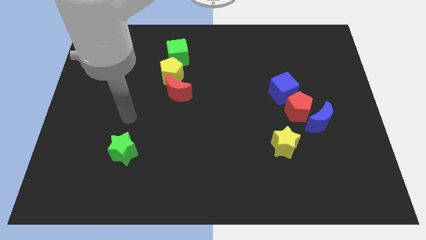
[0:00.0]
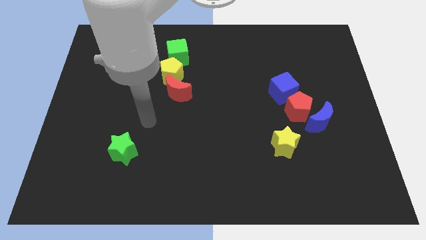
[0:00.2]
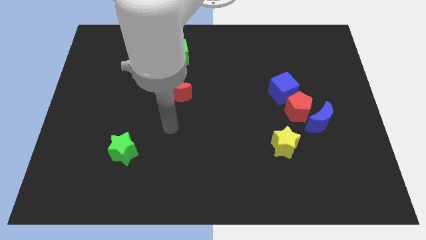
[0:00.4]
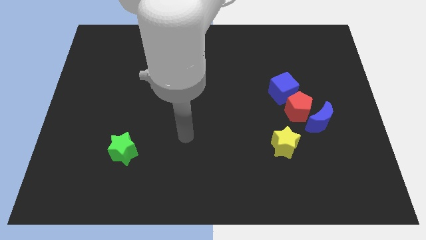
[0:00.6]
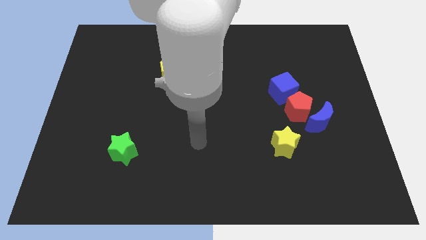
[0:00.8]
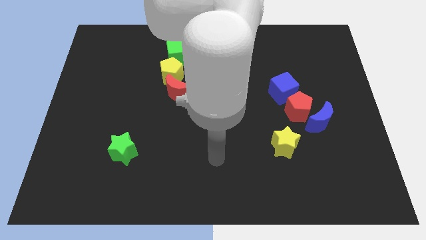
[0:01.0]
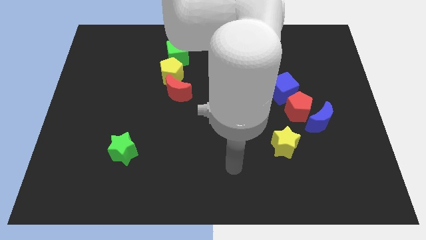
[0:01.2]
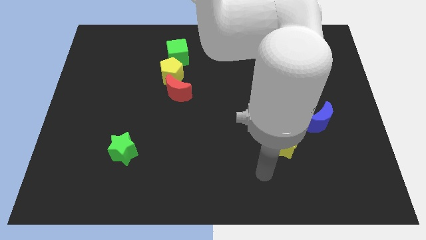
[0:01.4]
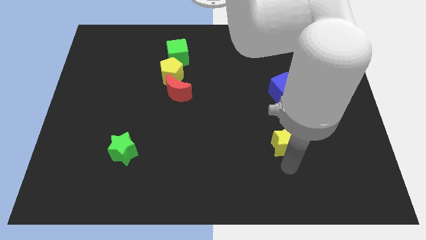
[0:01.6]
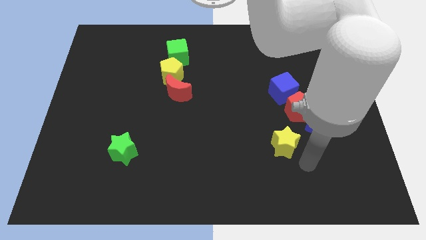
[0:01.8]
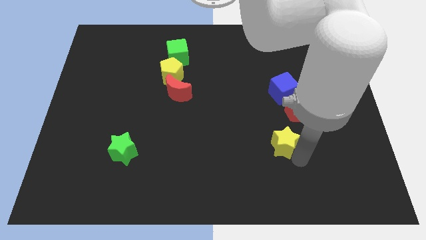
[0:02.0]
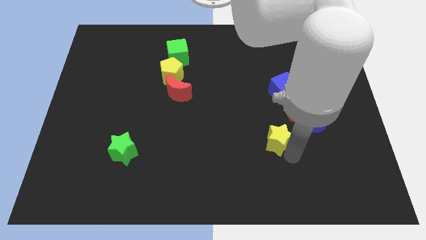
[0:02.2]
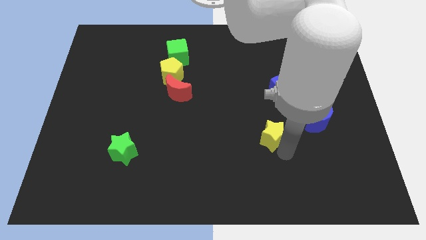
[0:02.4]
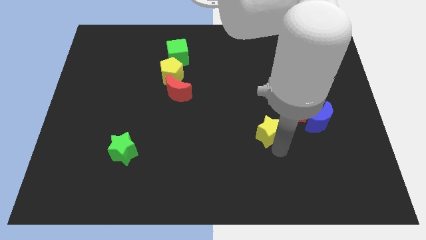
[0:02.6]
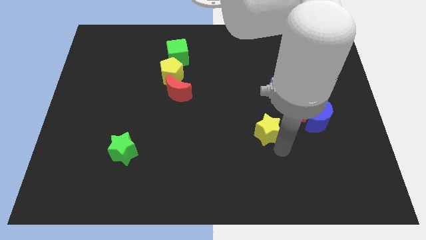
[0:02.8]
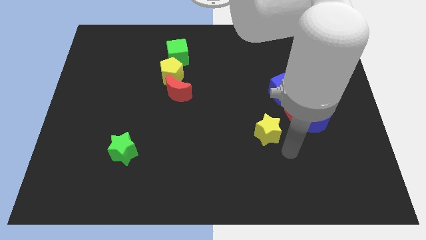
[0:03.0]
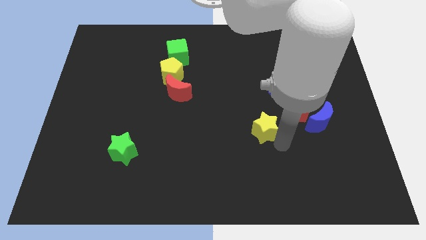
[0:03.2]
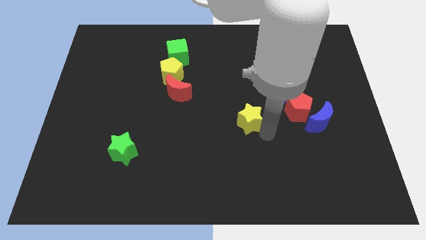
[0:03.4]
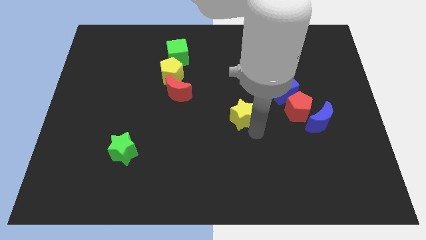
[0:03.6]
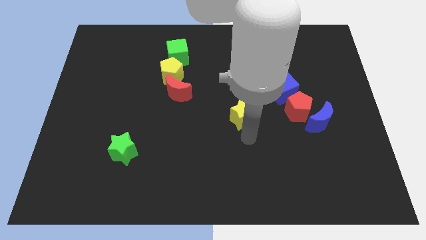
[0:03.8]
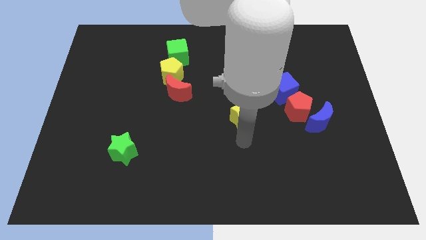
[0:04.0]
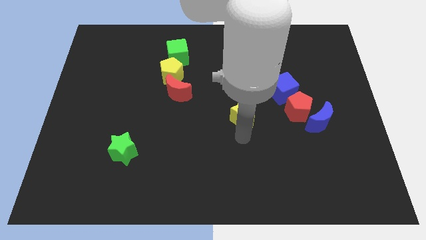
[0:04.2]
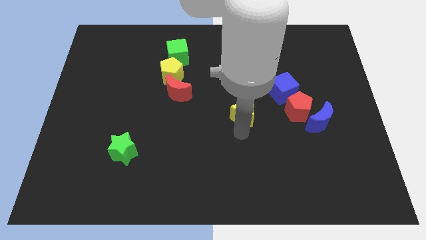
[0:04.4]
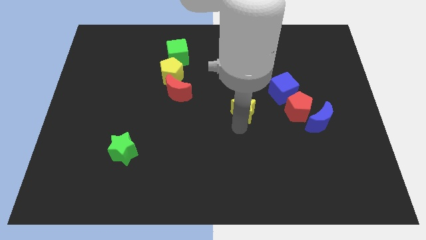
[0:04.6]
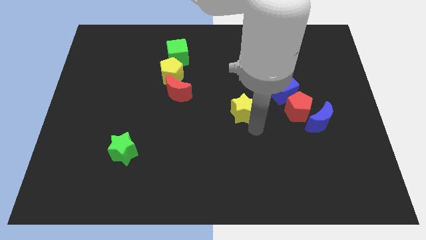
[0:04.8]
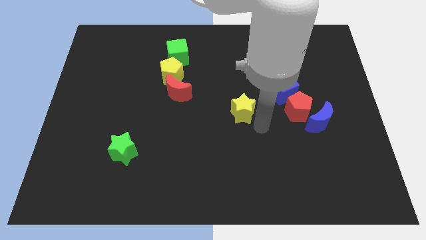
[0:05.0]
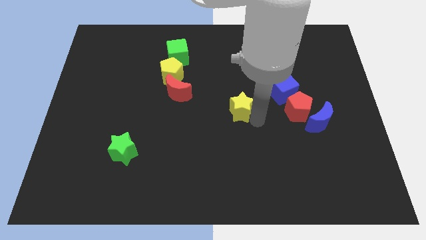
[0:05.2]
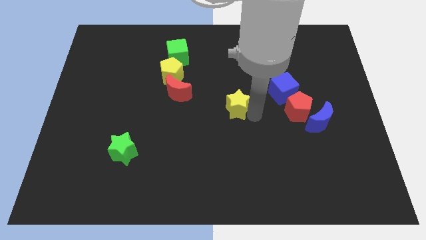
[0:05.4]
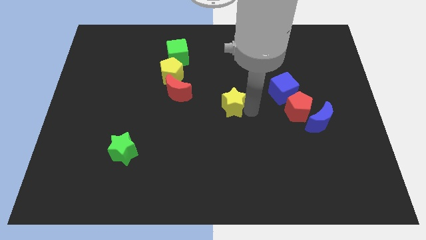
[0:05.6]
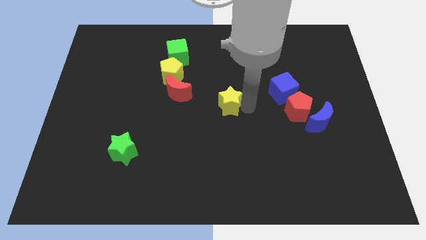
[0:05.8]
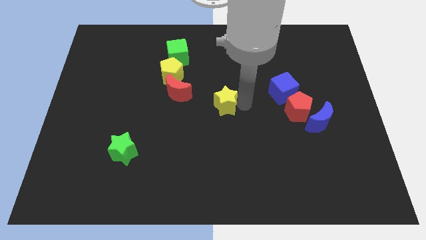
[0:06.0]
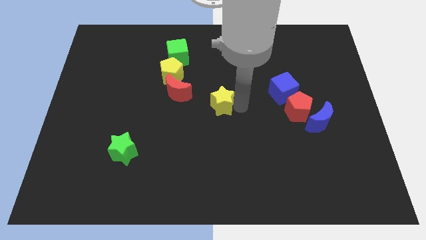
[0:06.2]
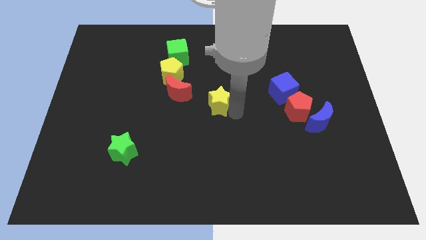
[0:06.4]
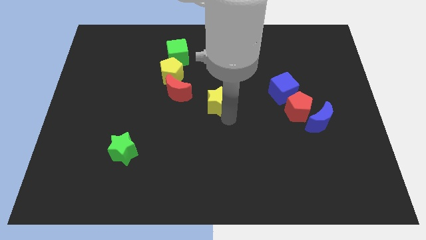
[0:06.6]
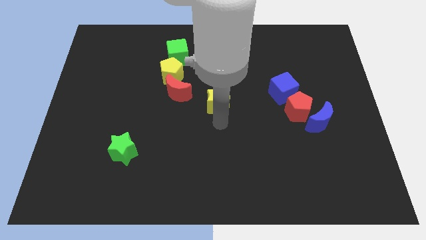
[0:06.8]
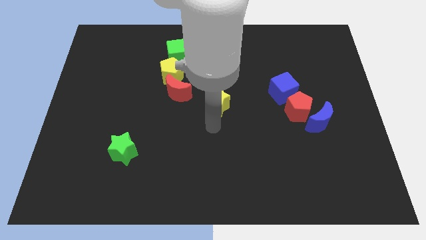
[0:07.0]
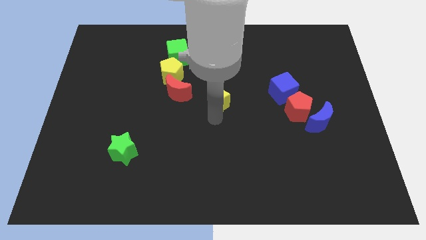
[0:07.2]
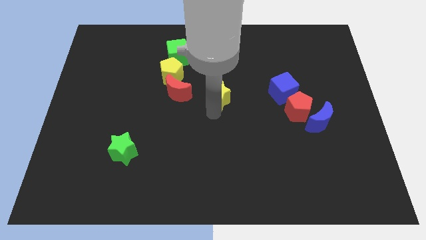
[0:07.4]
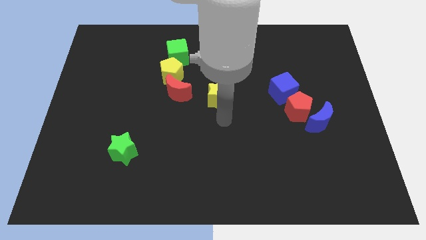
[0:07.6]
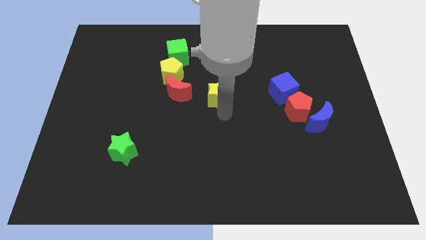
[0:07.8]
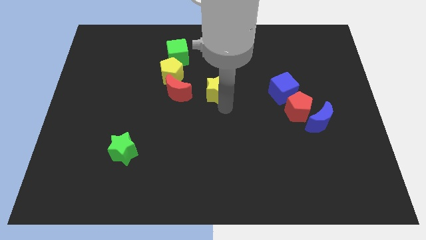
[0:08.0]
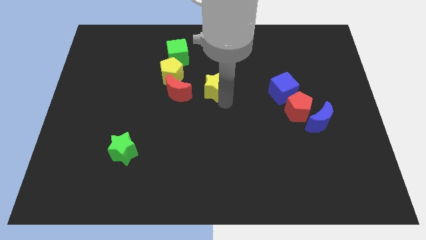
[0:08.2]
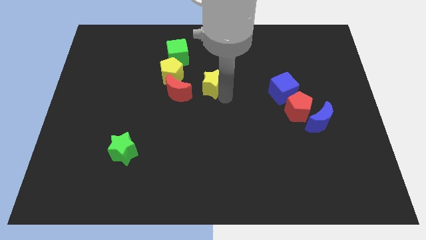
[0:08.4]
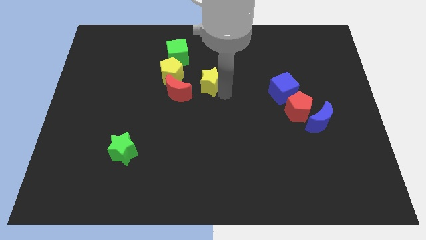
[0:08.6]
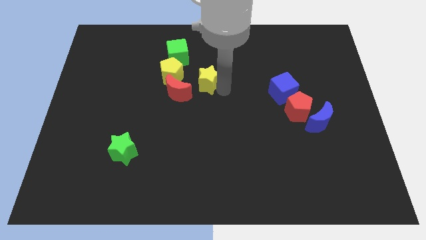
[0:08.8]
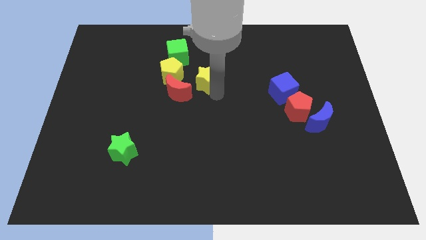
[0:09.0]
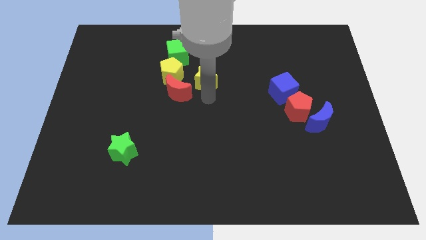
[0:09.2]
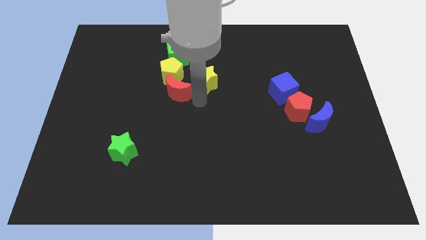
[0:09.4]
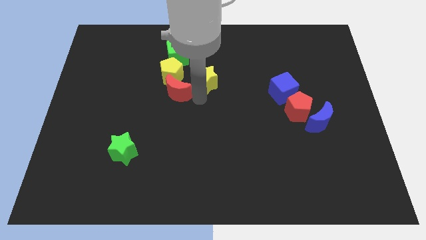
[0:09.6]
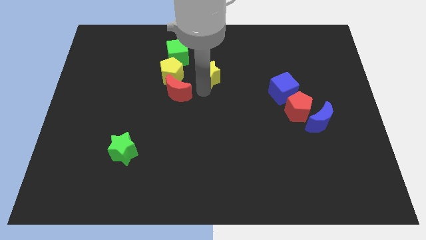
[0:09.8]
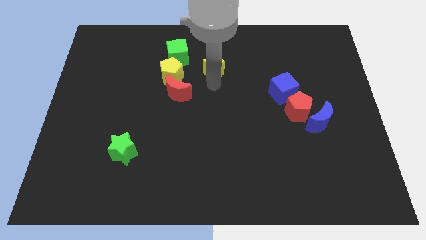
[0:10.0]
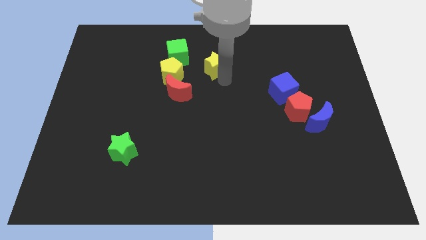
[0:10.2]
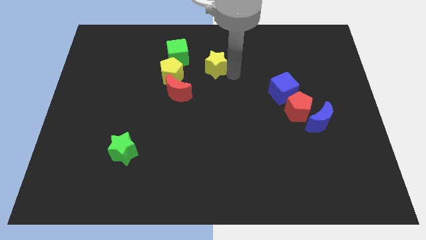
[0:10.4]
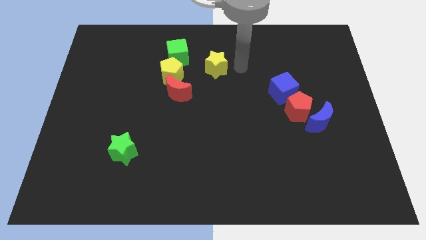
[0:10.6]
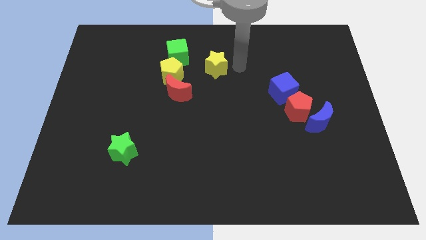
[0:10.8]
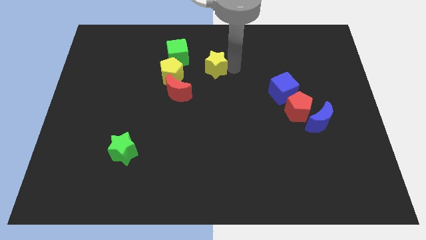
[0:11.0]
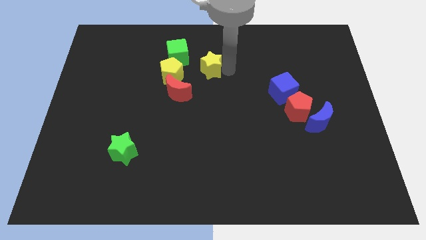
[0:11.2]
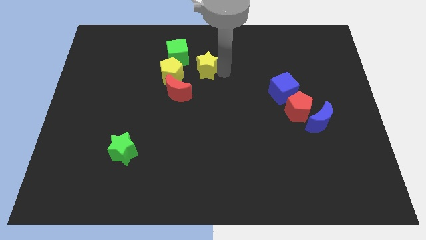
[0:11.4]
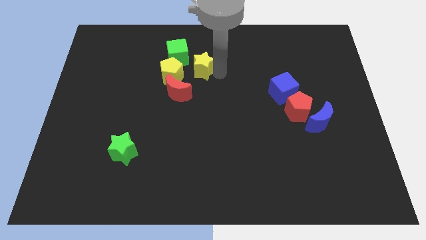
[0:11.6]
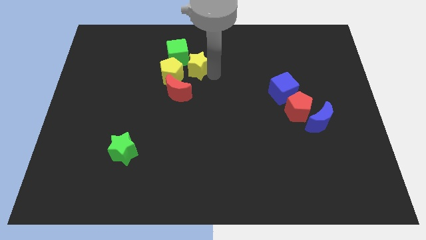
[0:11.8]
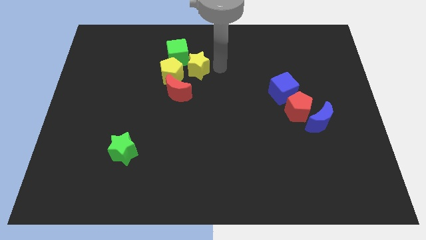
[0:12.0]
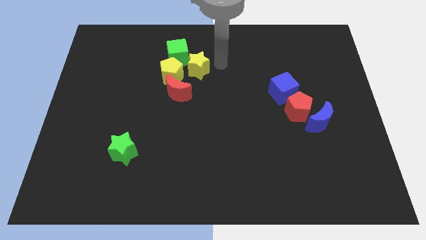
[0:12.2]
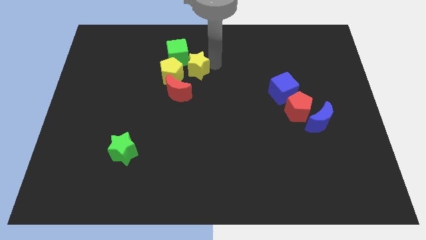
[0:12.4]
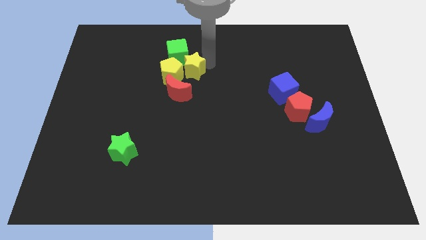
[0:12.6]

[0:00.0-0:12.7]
move the yellow star next to the yellow pentagon
